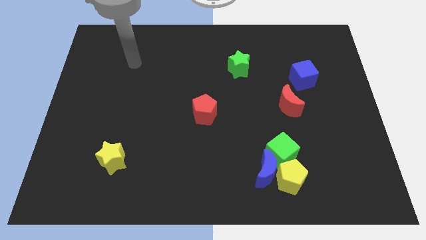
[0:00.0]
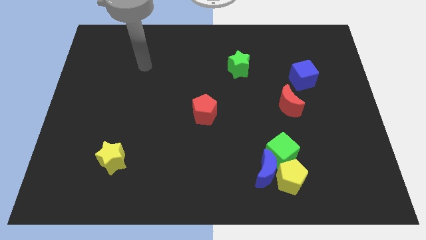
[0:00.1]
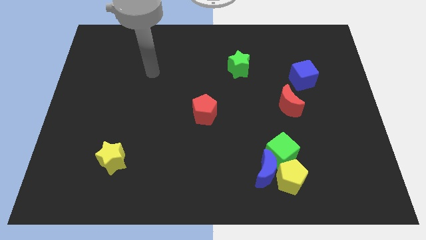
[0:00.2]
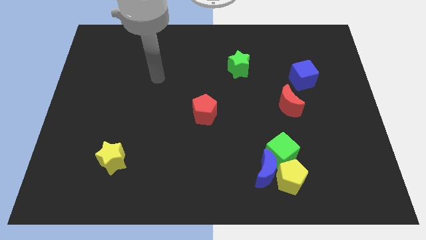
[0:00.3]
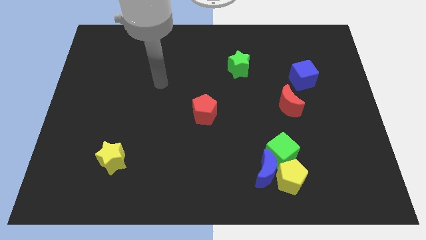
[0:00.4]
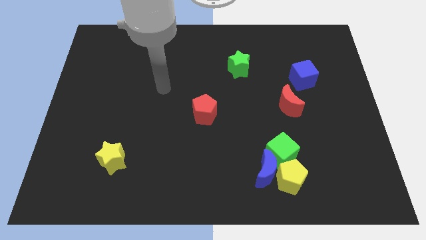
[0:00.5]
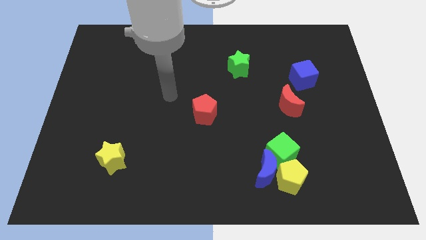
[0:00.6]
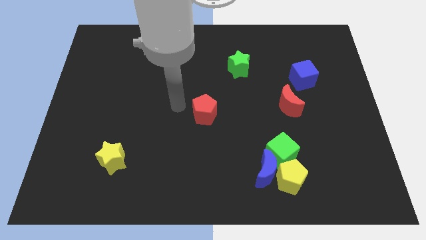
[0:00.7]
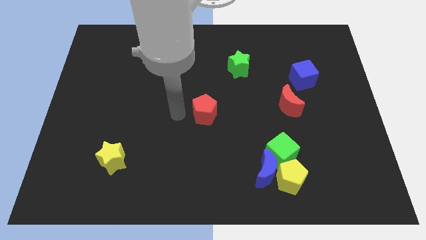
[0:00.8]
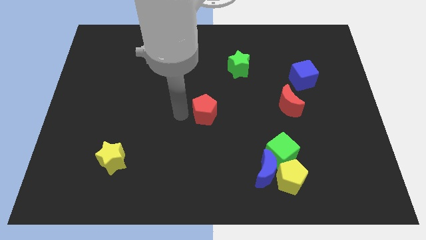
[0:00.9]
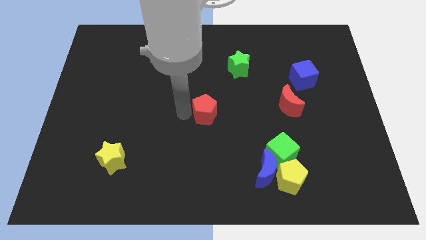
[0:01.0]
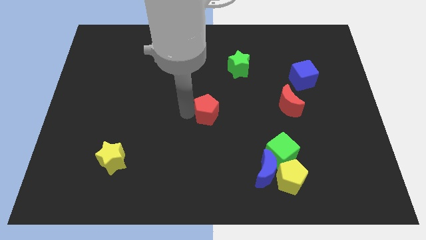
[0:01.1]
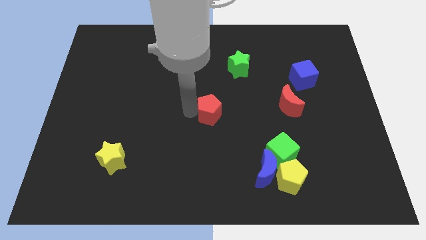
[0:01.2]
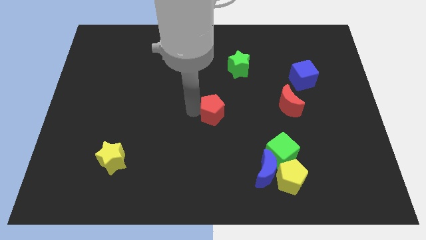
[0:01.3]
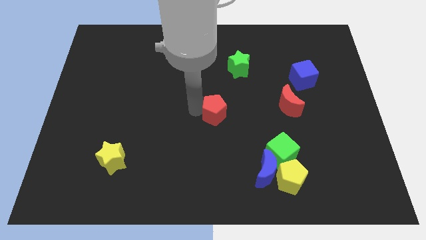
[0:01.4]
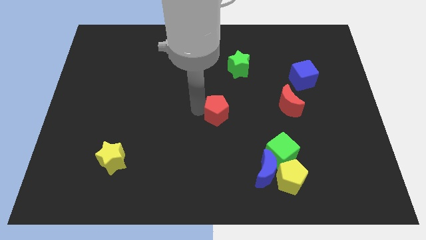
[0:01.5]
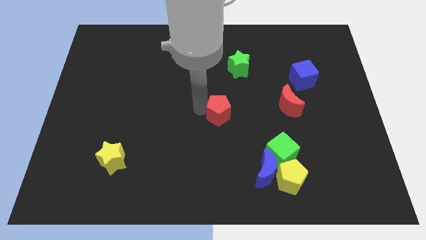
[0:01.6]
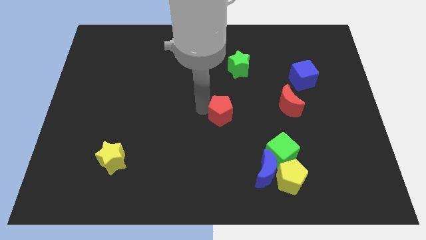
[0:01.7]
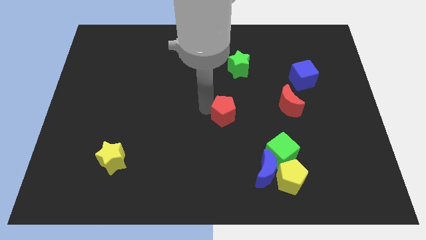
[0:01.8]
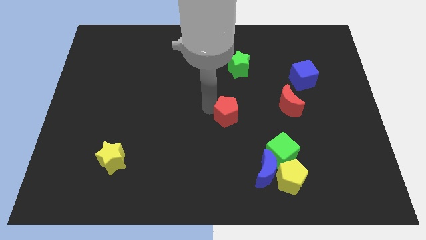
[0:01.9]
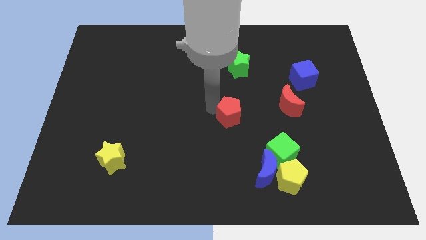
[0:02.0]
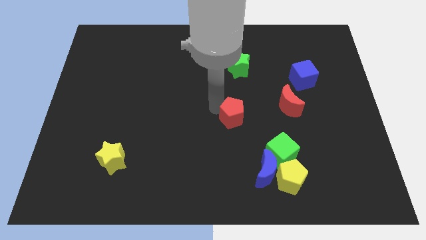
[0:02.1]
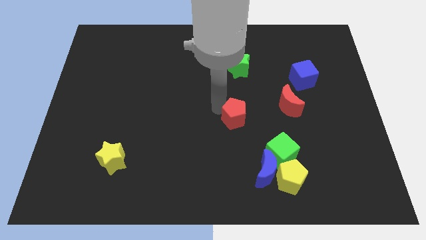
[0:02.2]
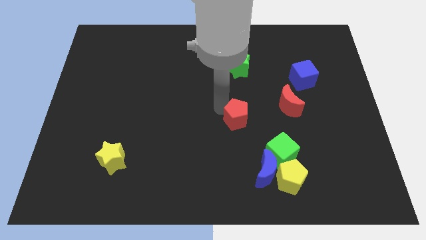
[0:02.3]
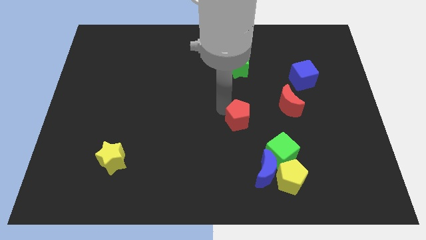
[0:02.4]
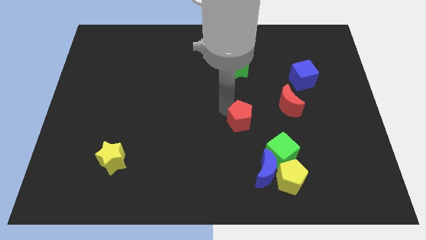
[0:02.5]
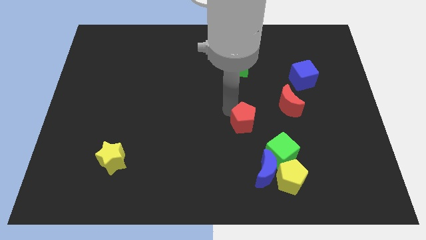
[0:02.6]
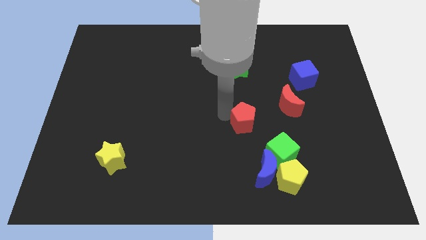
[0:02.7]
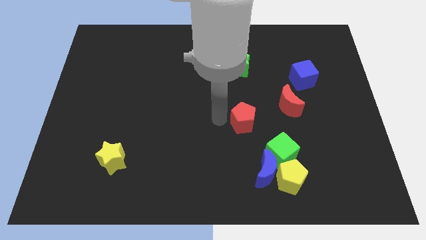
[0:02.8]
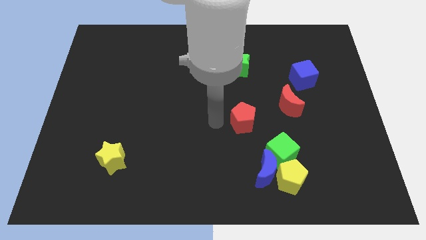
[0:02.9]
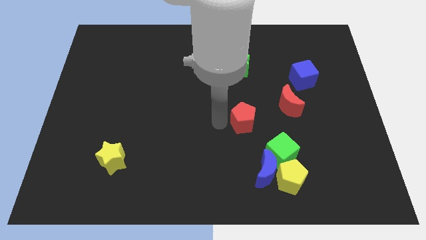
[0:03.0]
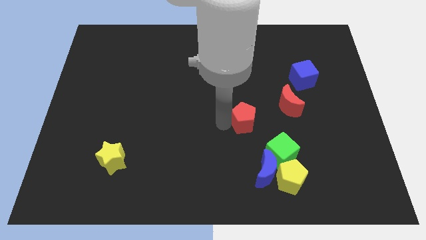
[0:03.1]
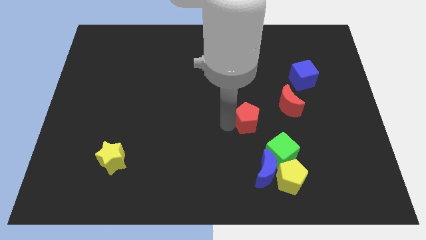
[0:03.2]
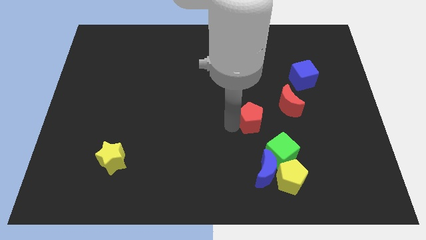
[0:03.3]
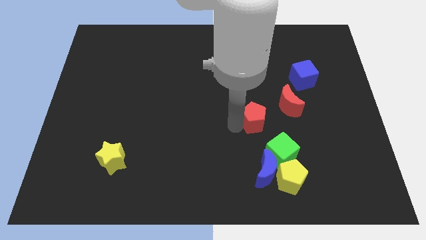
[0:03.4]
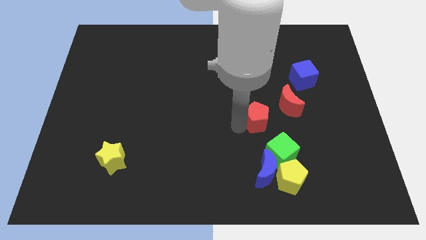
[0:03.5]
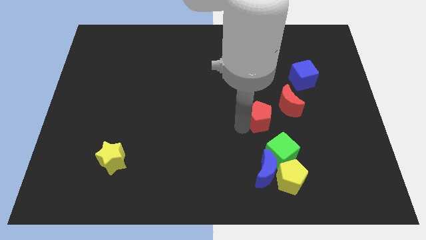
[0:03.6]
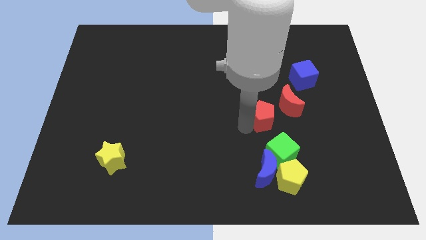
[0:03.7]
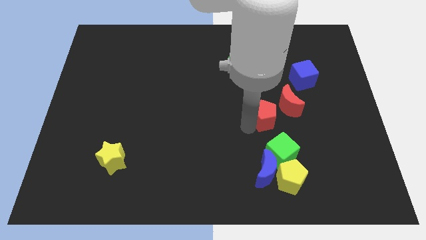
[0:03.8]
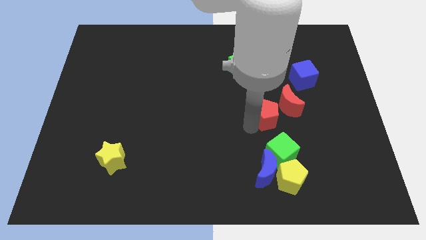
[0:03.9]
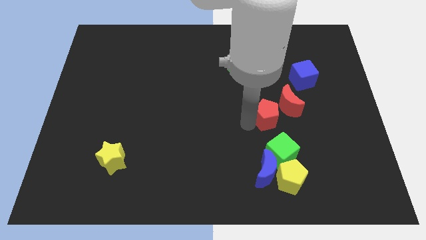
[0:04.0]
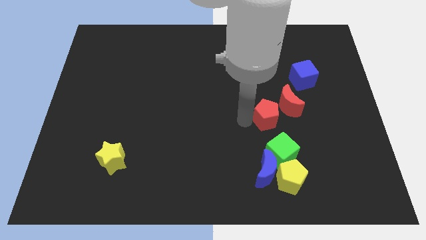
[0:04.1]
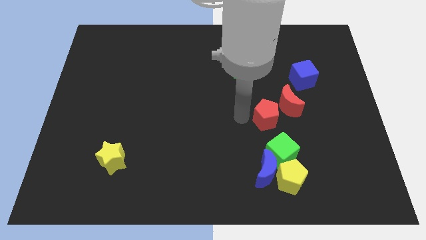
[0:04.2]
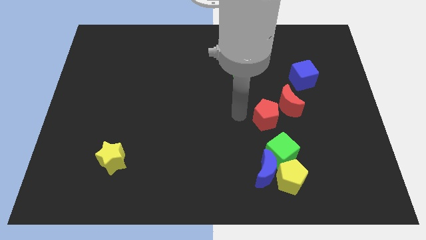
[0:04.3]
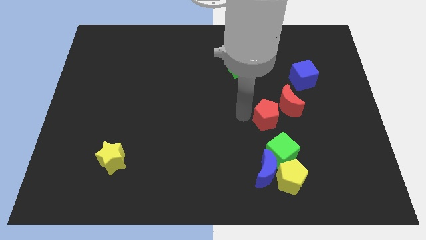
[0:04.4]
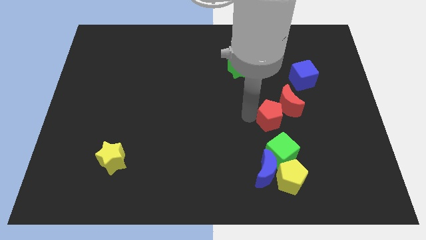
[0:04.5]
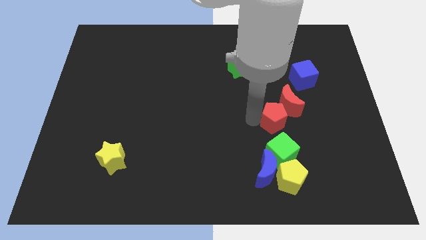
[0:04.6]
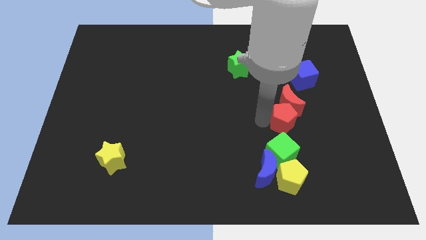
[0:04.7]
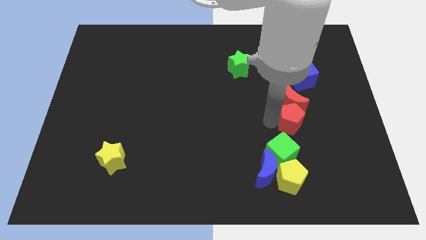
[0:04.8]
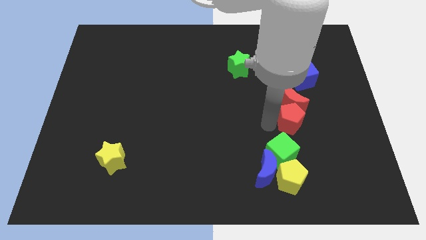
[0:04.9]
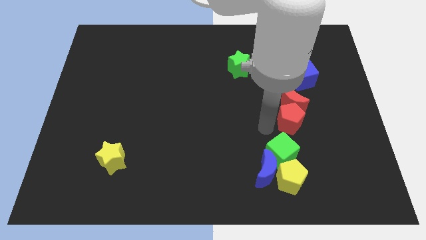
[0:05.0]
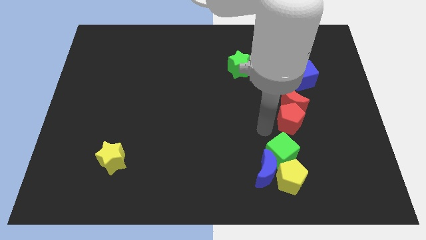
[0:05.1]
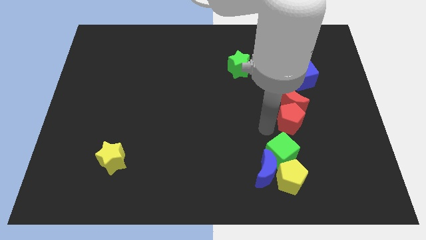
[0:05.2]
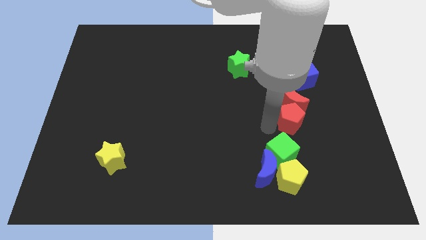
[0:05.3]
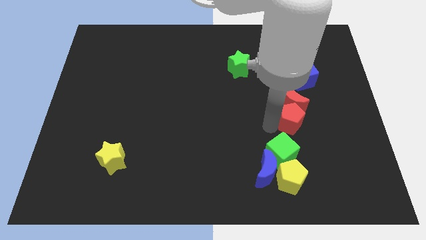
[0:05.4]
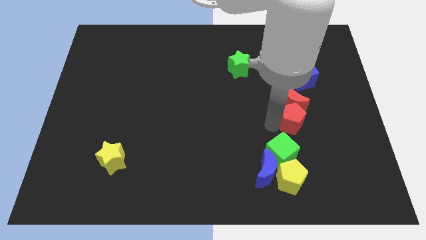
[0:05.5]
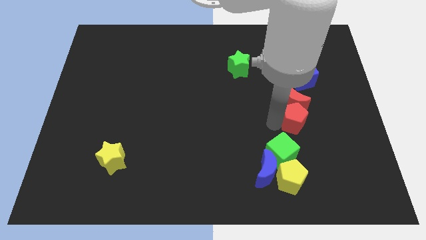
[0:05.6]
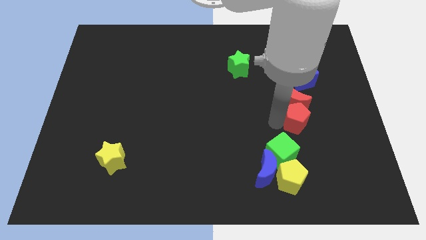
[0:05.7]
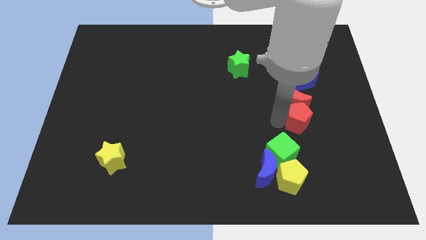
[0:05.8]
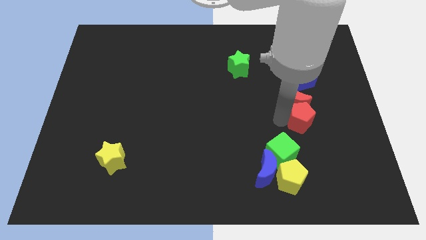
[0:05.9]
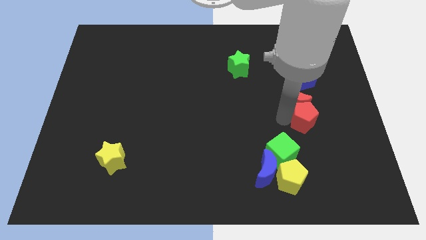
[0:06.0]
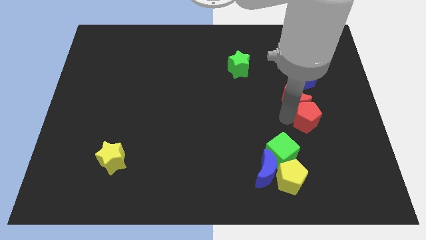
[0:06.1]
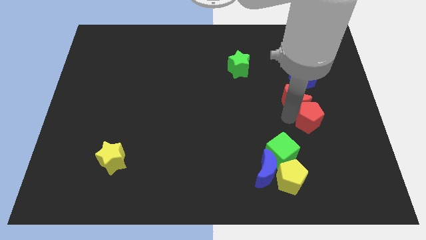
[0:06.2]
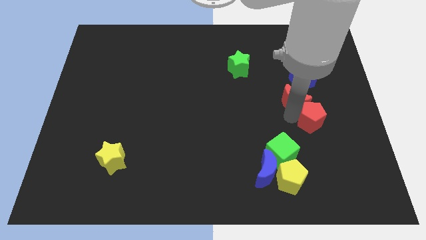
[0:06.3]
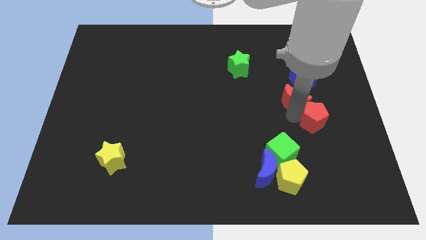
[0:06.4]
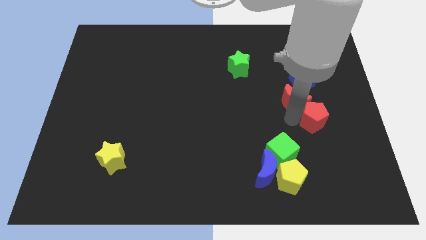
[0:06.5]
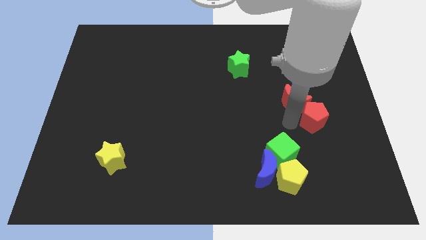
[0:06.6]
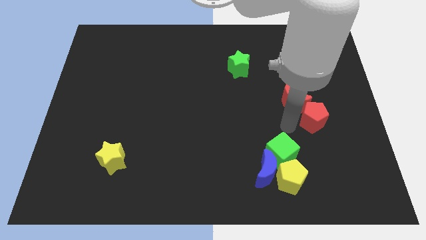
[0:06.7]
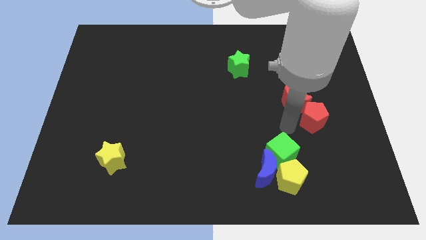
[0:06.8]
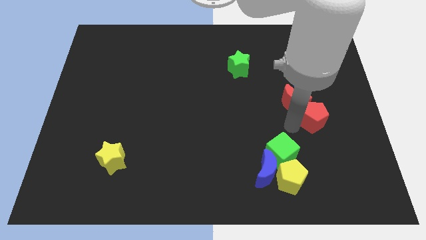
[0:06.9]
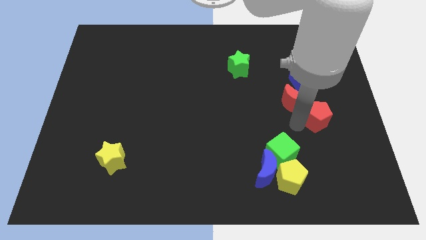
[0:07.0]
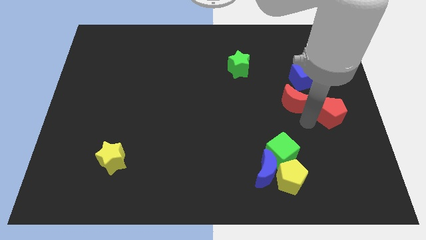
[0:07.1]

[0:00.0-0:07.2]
push the red pentagon to the right side
